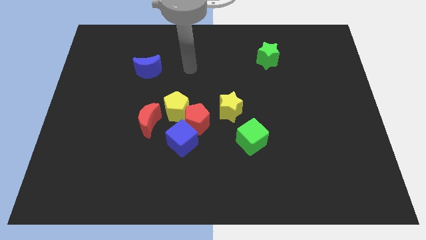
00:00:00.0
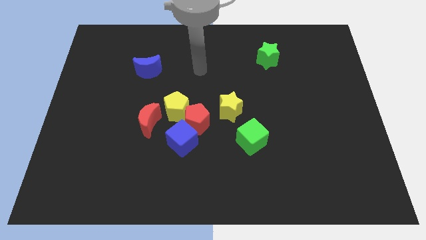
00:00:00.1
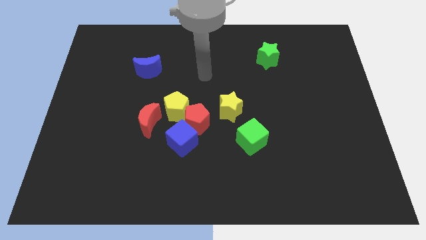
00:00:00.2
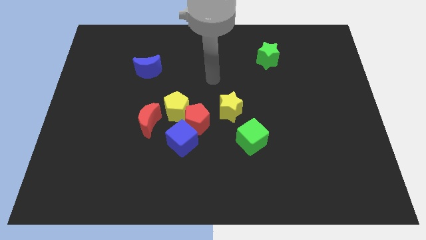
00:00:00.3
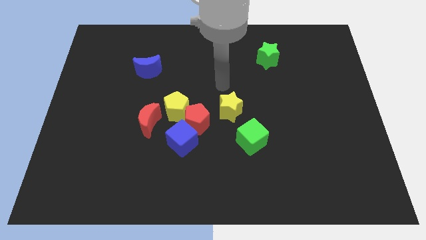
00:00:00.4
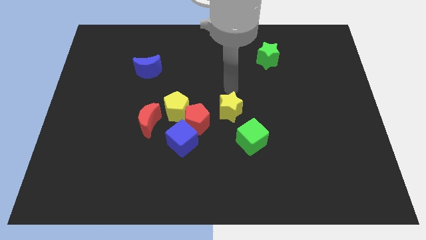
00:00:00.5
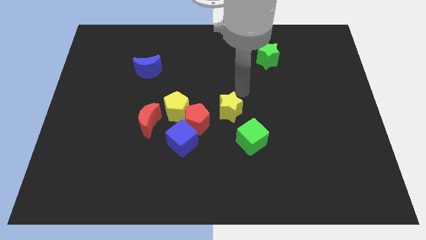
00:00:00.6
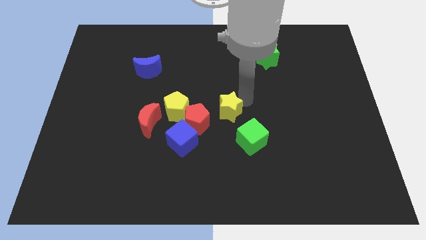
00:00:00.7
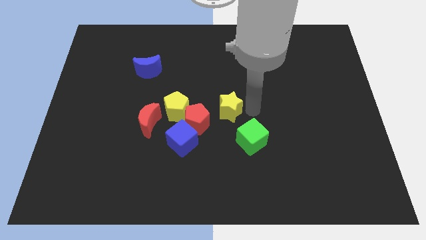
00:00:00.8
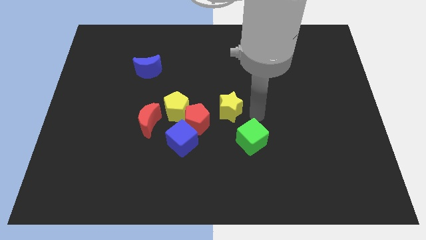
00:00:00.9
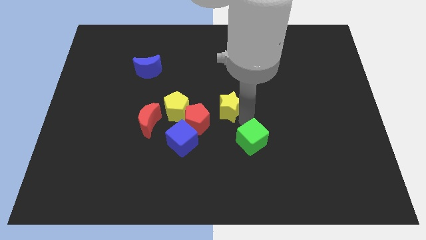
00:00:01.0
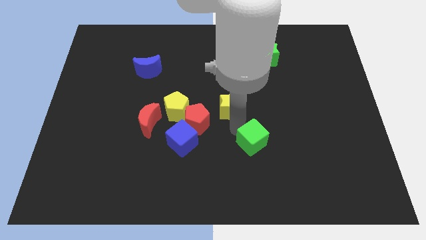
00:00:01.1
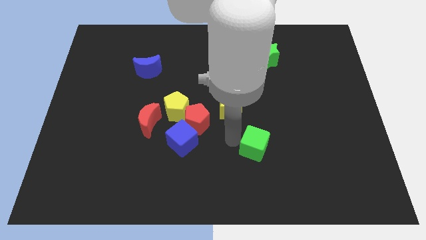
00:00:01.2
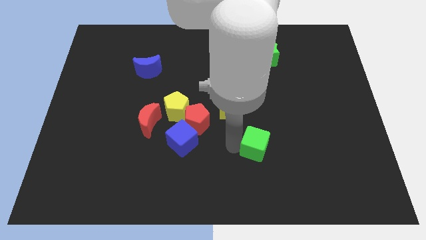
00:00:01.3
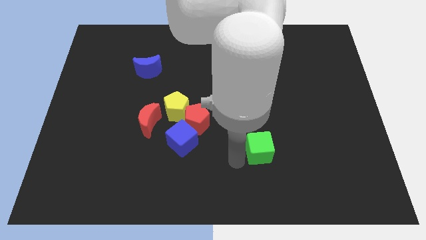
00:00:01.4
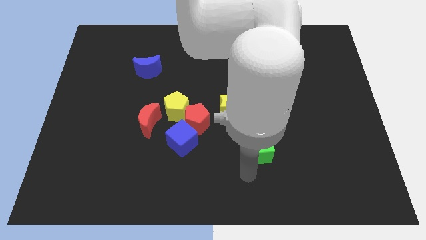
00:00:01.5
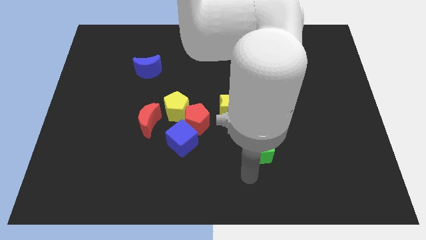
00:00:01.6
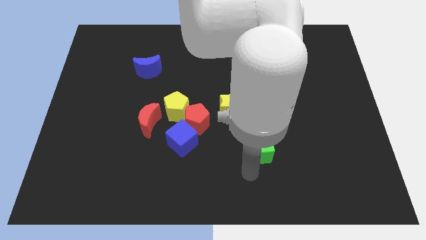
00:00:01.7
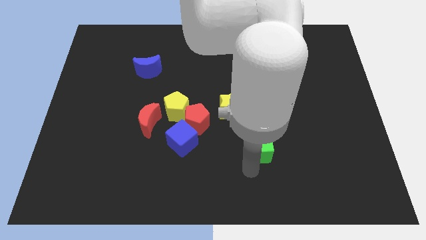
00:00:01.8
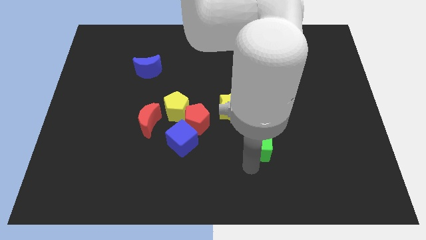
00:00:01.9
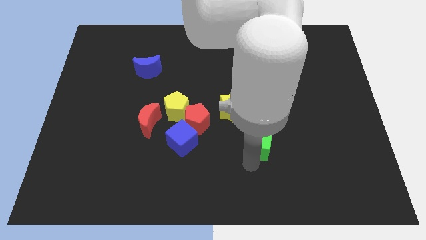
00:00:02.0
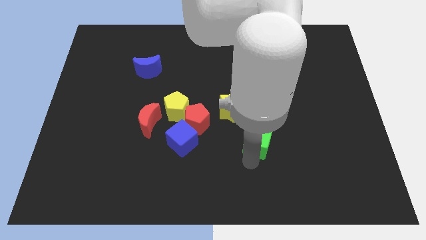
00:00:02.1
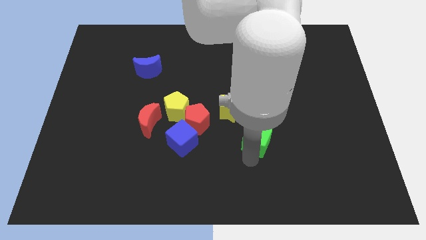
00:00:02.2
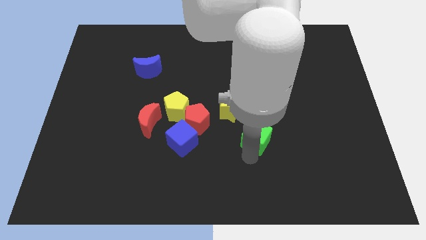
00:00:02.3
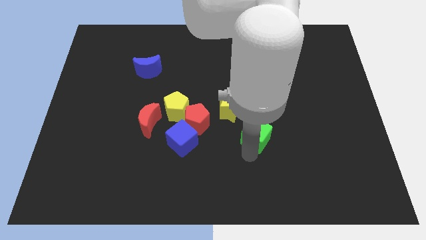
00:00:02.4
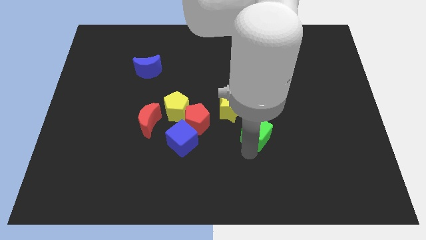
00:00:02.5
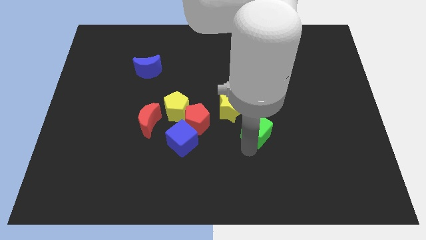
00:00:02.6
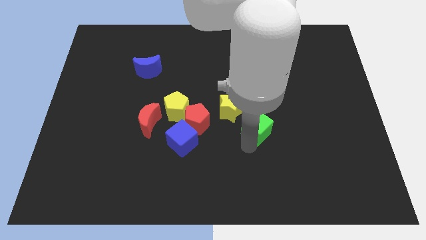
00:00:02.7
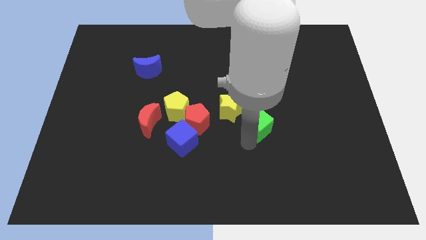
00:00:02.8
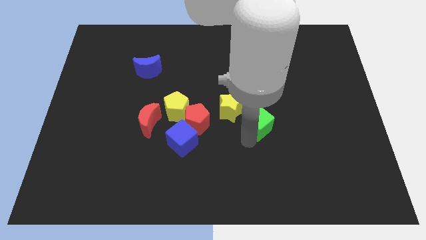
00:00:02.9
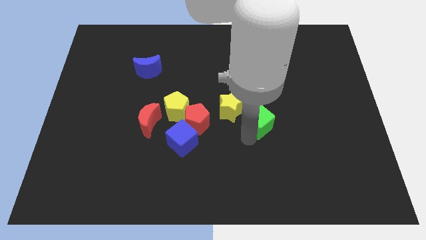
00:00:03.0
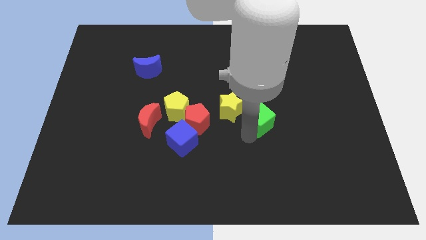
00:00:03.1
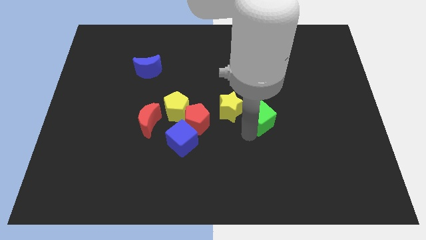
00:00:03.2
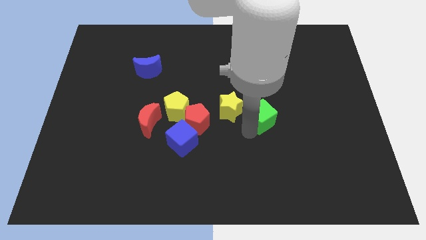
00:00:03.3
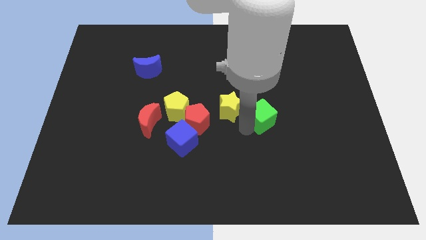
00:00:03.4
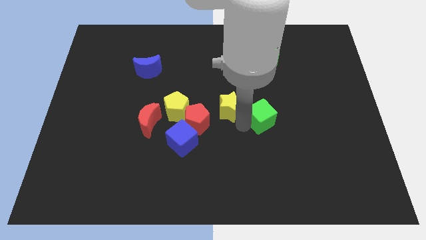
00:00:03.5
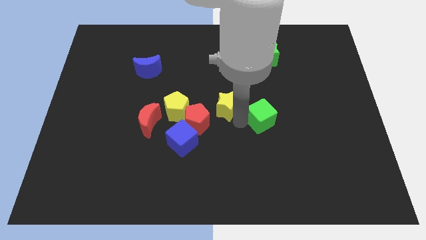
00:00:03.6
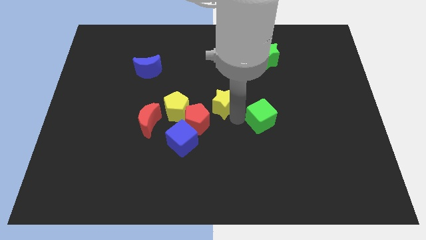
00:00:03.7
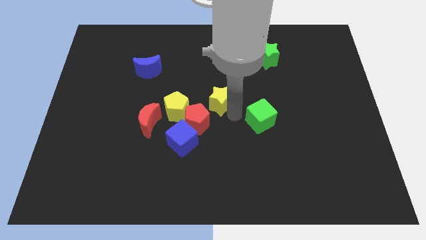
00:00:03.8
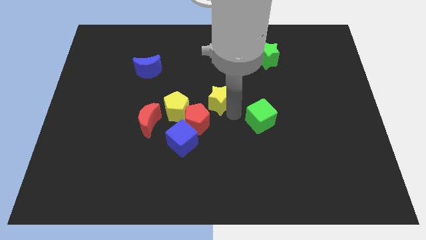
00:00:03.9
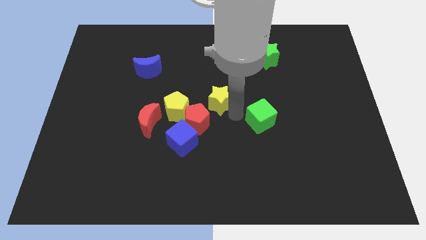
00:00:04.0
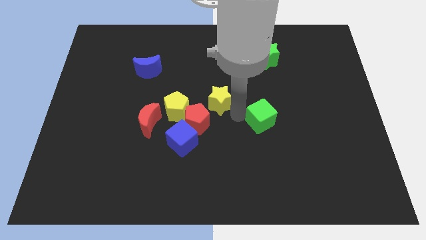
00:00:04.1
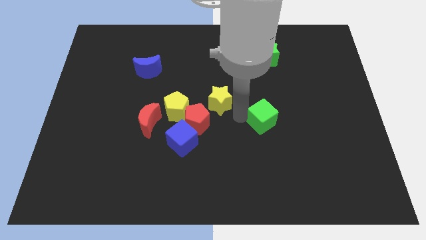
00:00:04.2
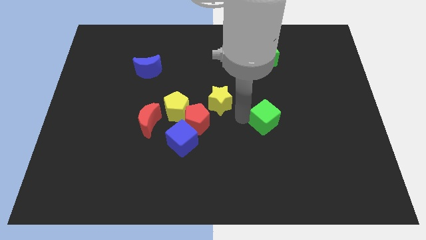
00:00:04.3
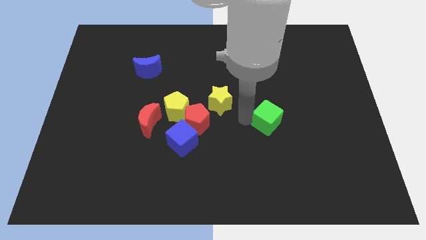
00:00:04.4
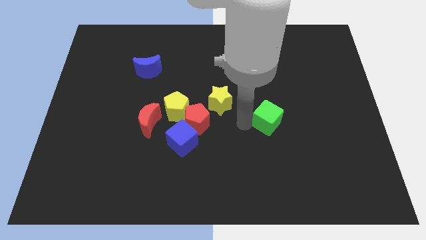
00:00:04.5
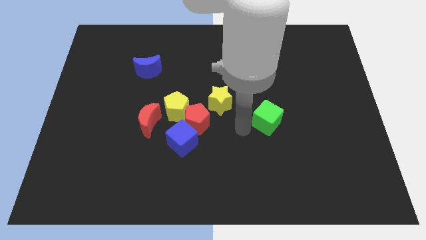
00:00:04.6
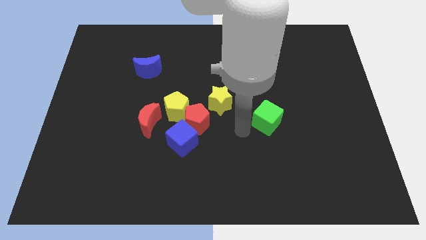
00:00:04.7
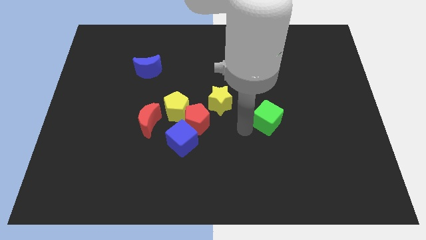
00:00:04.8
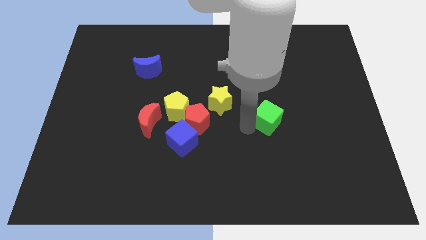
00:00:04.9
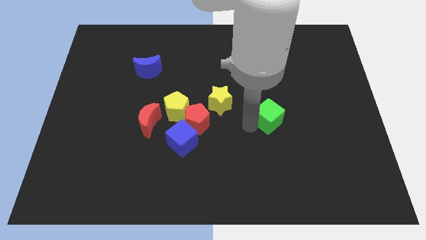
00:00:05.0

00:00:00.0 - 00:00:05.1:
slightly push the green cube up and right diagonally

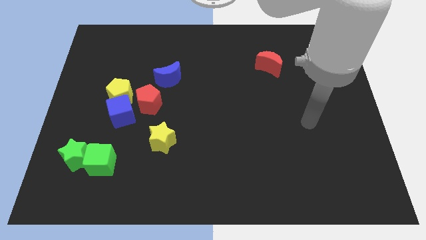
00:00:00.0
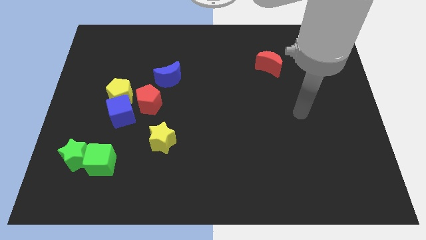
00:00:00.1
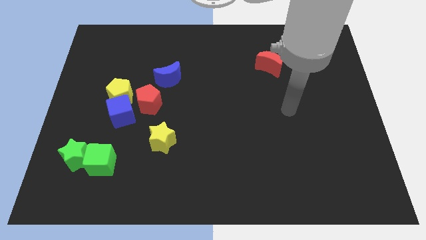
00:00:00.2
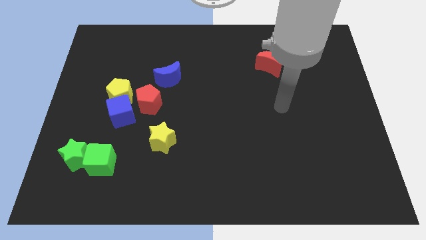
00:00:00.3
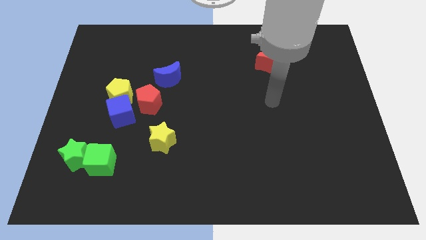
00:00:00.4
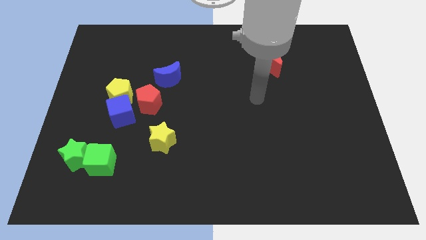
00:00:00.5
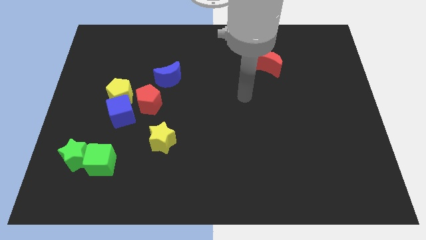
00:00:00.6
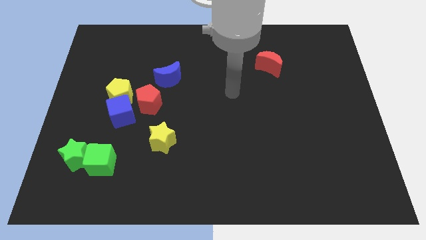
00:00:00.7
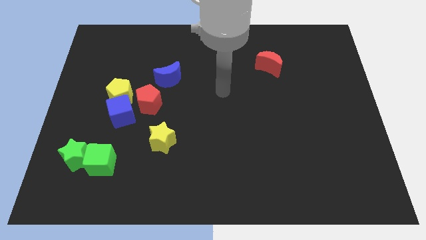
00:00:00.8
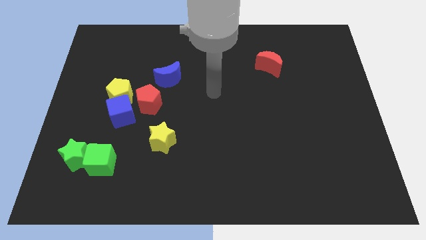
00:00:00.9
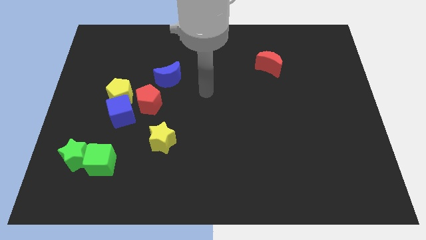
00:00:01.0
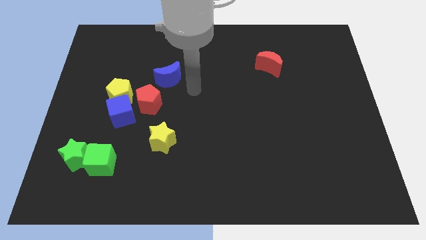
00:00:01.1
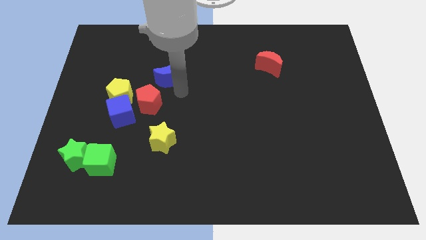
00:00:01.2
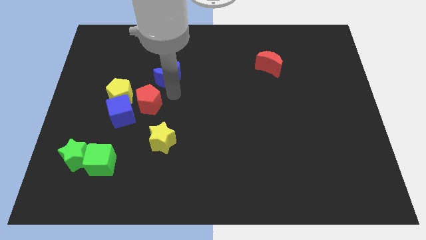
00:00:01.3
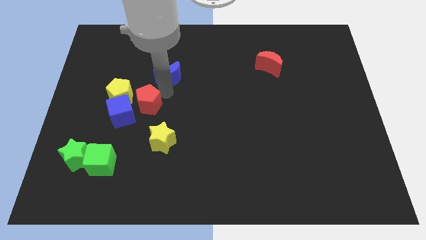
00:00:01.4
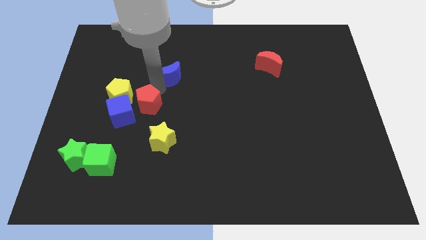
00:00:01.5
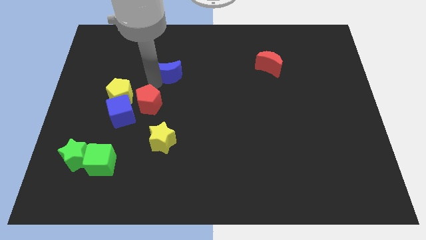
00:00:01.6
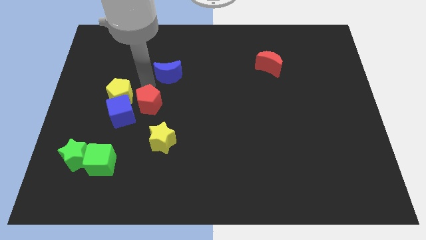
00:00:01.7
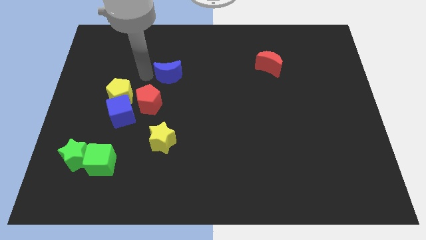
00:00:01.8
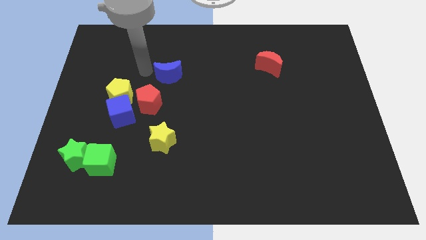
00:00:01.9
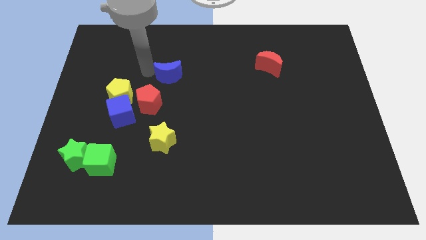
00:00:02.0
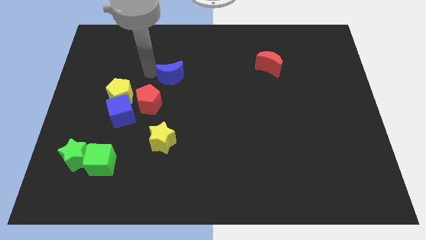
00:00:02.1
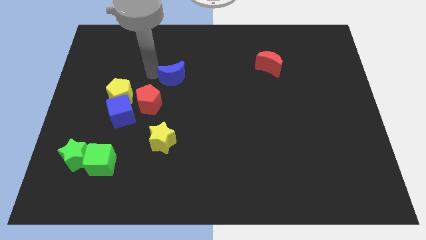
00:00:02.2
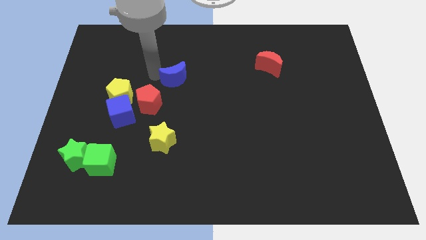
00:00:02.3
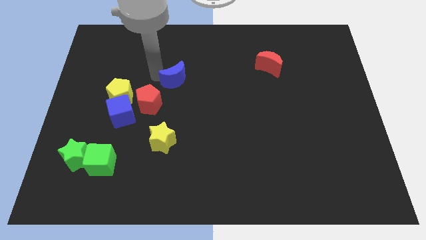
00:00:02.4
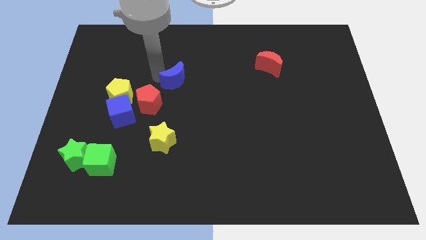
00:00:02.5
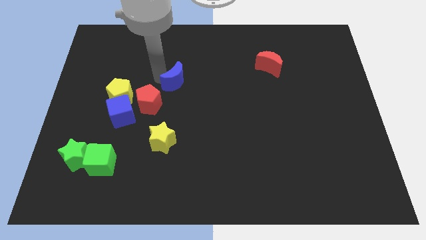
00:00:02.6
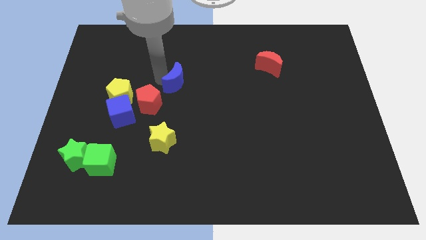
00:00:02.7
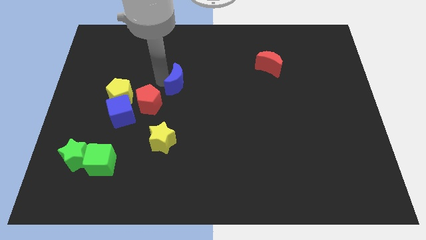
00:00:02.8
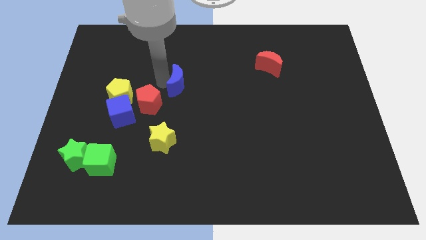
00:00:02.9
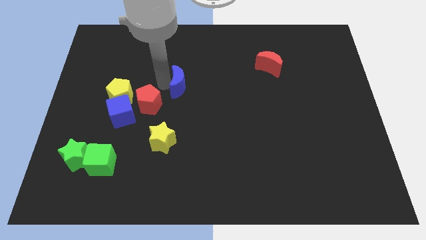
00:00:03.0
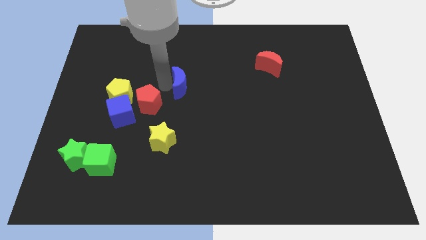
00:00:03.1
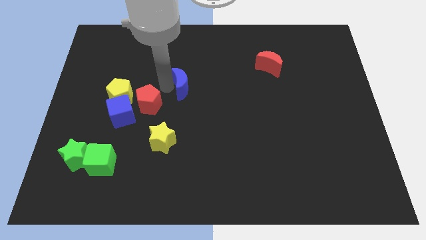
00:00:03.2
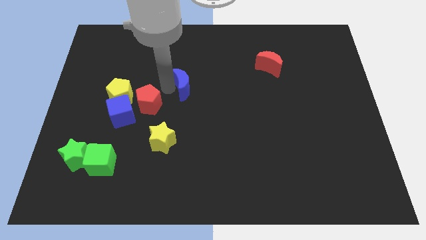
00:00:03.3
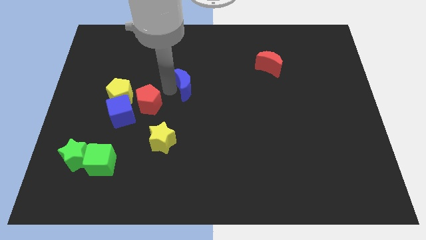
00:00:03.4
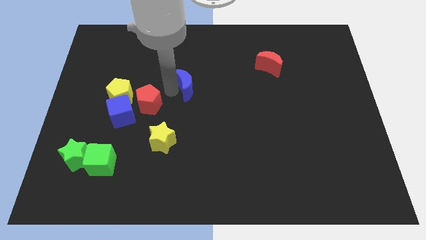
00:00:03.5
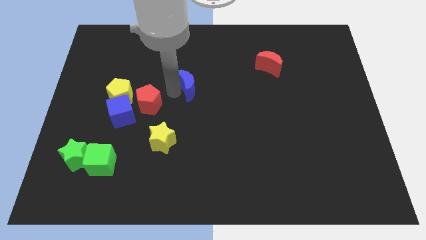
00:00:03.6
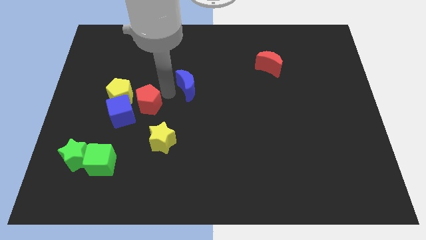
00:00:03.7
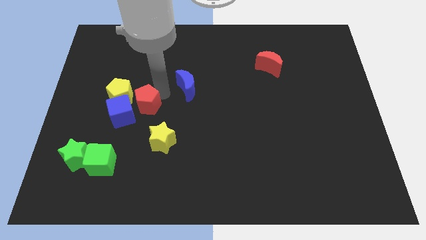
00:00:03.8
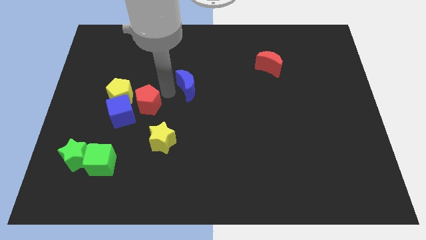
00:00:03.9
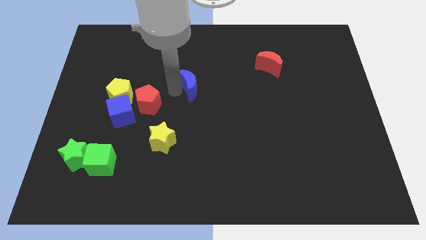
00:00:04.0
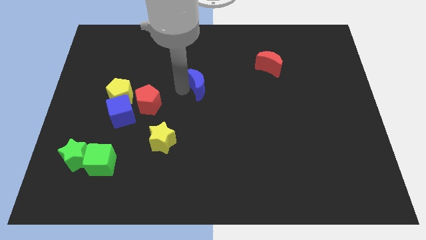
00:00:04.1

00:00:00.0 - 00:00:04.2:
push the blue moon a bit right
